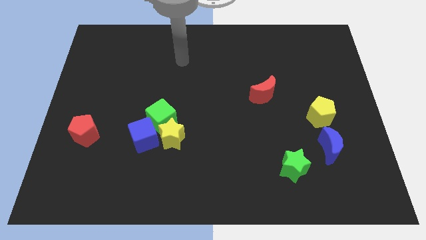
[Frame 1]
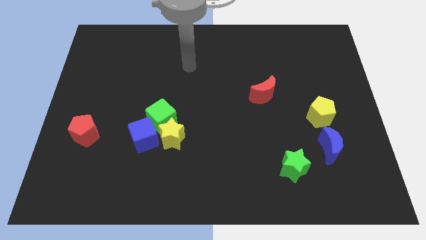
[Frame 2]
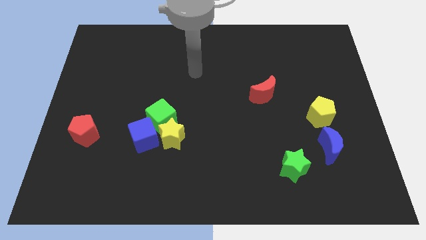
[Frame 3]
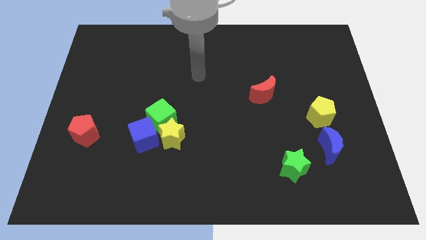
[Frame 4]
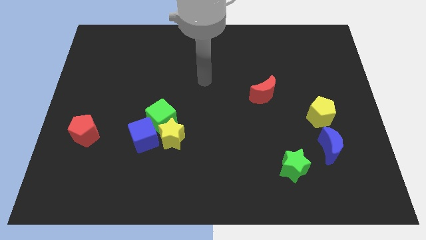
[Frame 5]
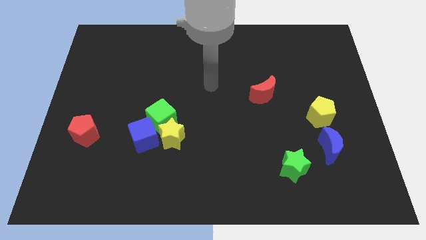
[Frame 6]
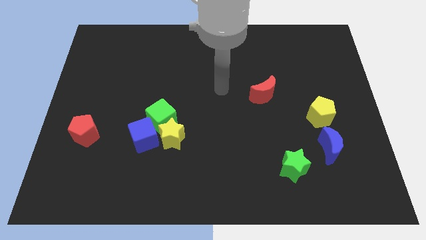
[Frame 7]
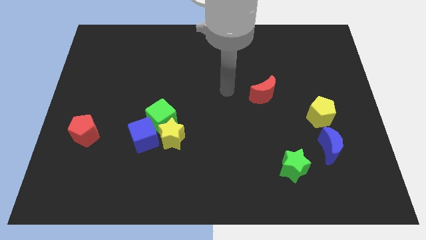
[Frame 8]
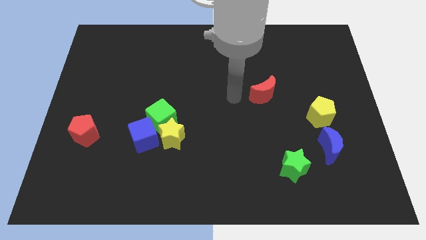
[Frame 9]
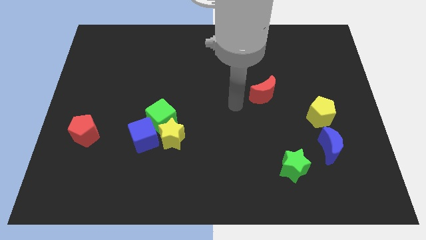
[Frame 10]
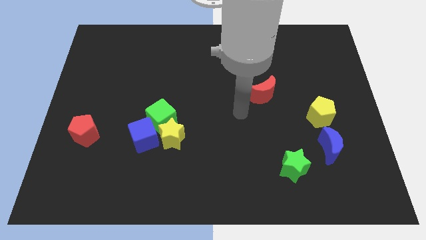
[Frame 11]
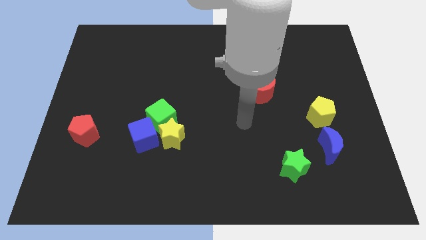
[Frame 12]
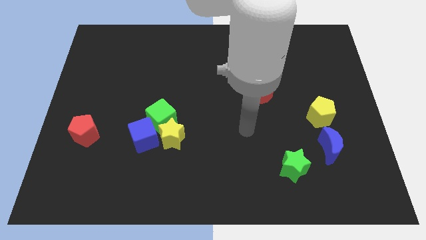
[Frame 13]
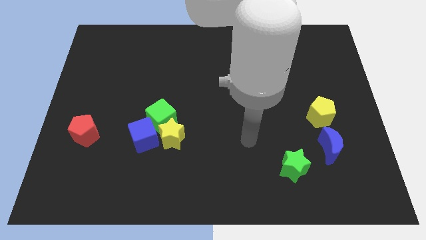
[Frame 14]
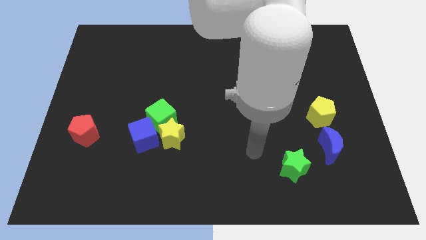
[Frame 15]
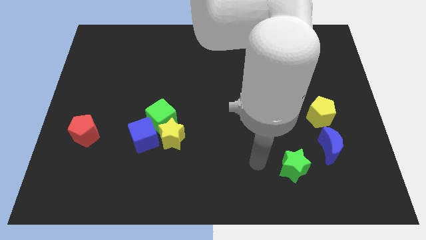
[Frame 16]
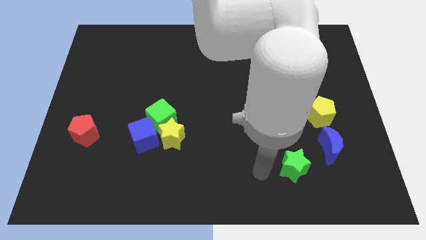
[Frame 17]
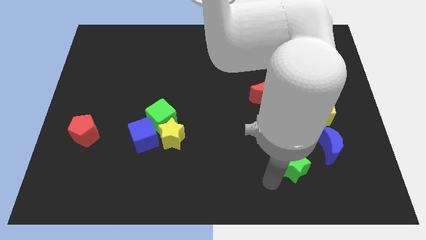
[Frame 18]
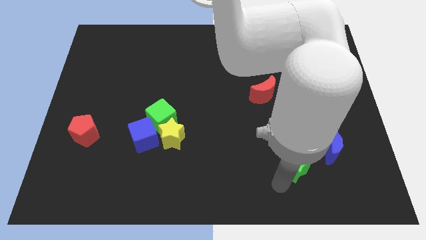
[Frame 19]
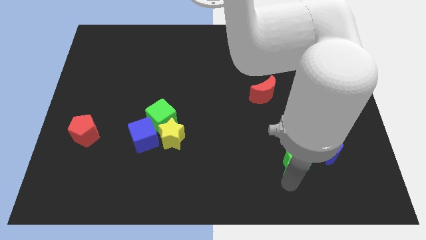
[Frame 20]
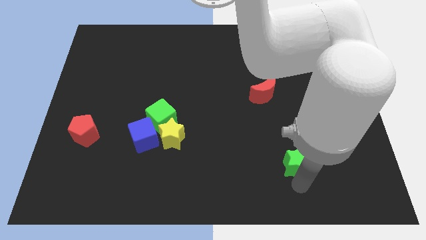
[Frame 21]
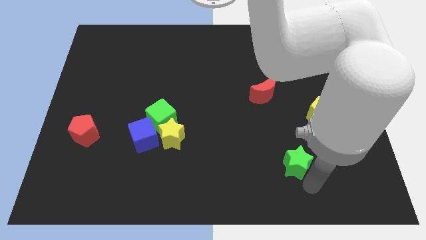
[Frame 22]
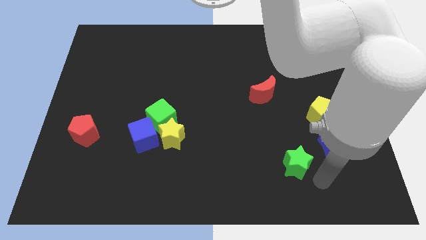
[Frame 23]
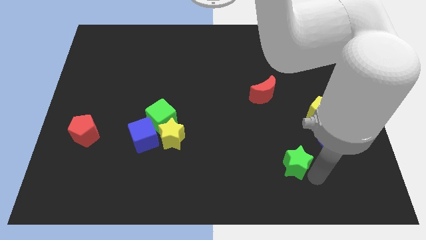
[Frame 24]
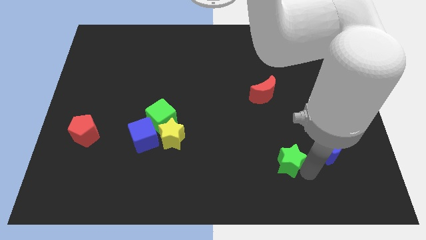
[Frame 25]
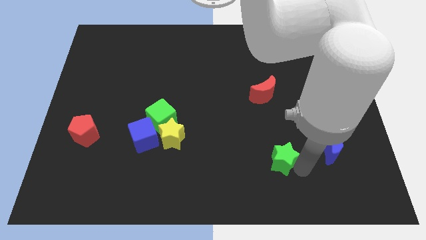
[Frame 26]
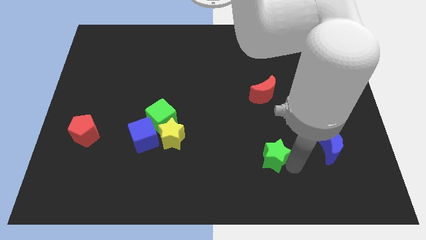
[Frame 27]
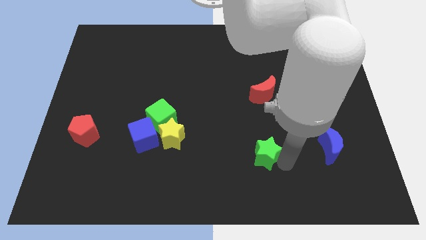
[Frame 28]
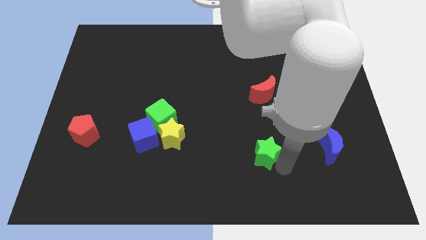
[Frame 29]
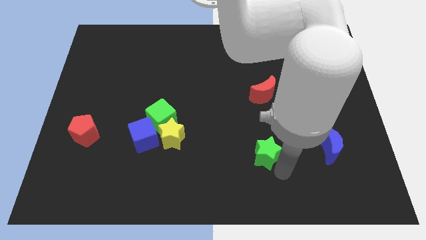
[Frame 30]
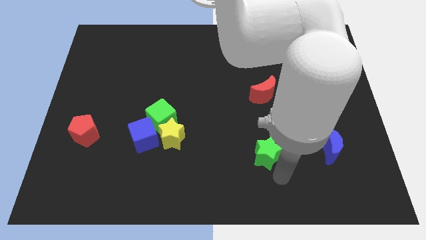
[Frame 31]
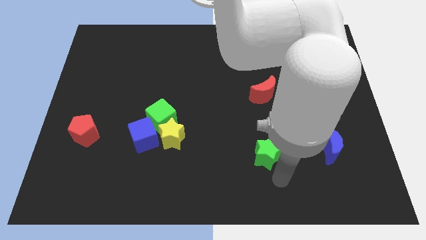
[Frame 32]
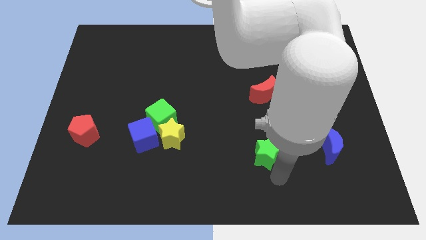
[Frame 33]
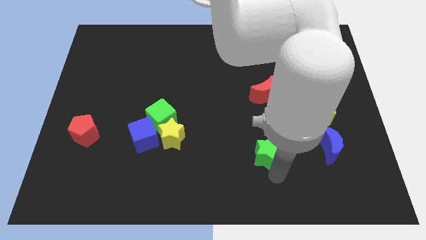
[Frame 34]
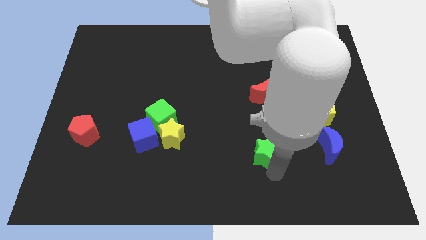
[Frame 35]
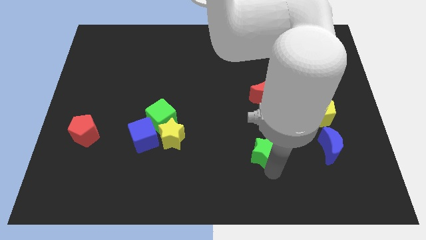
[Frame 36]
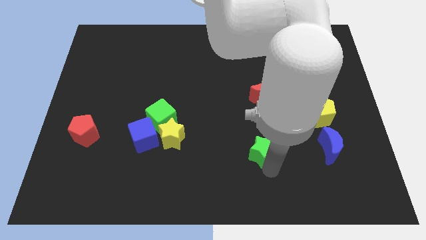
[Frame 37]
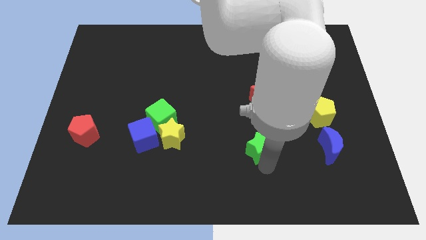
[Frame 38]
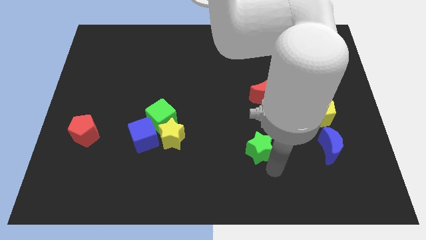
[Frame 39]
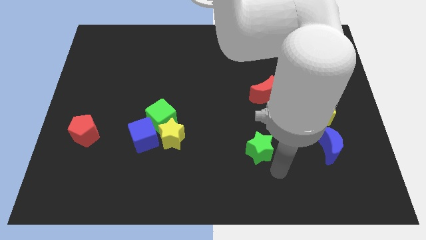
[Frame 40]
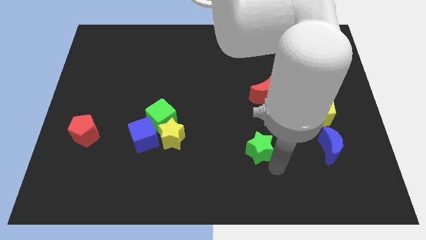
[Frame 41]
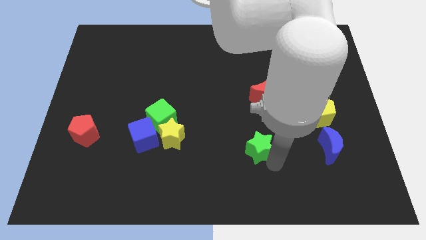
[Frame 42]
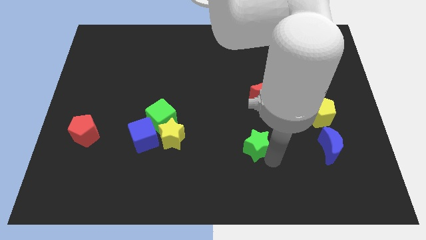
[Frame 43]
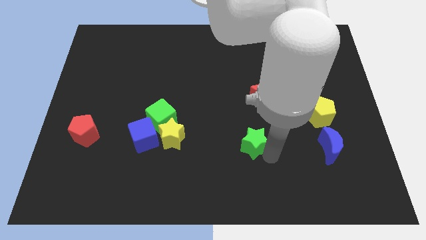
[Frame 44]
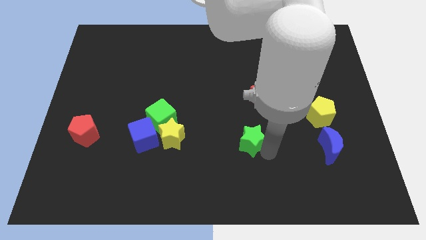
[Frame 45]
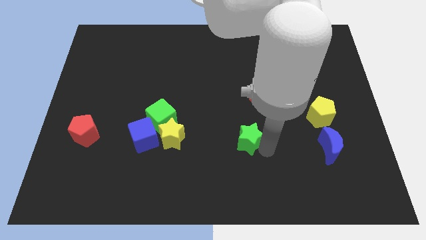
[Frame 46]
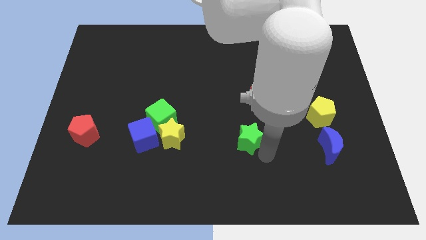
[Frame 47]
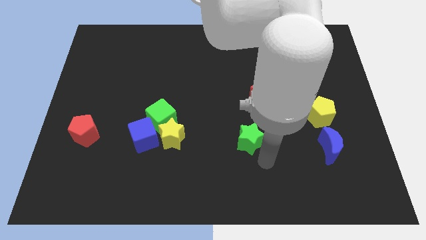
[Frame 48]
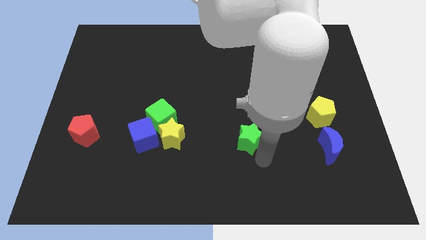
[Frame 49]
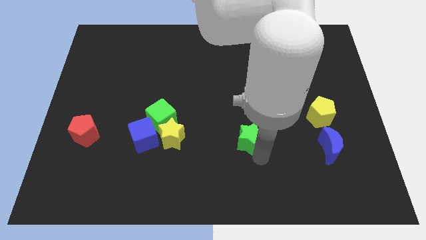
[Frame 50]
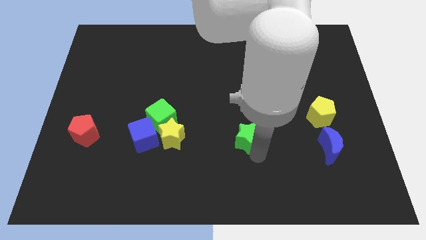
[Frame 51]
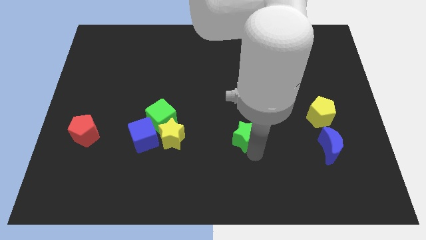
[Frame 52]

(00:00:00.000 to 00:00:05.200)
slide the green star to the center of the board

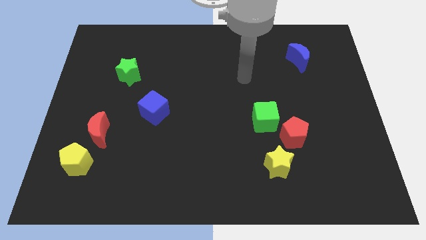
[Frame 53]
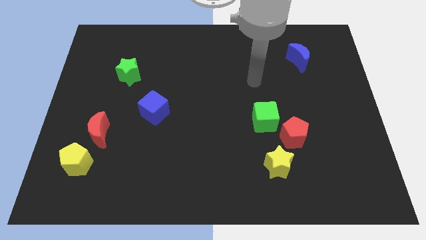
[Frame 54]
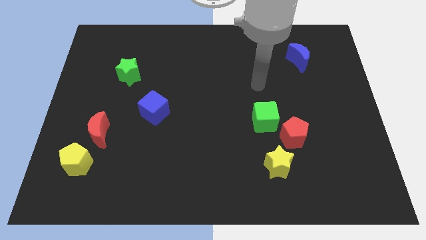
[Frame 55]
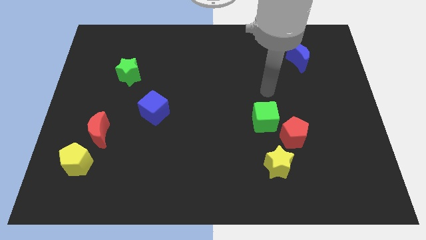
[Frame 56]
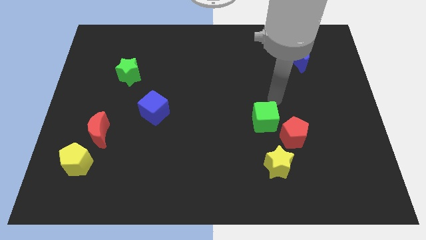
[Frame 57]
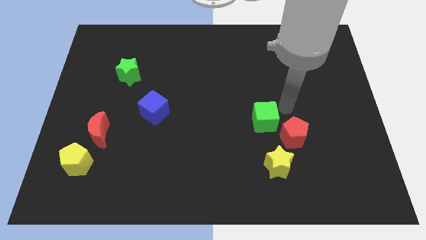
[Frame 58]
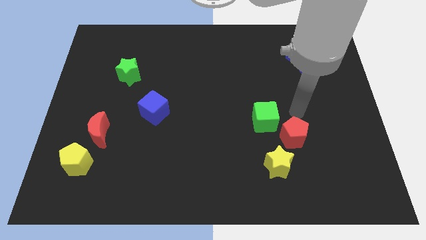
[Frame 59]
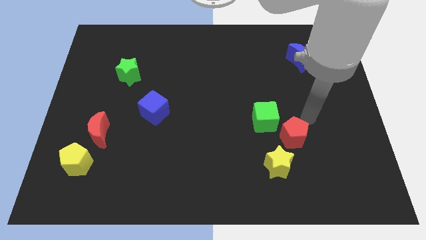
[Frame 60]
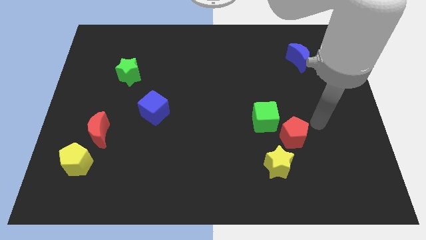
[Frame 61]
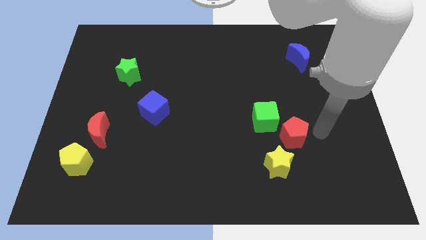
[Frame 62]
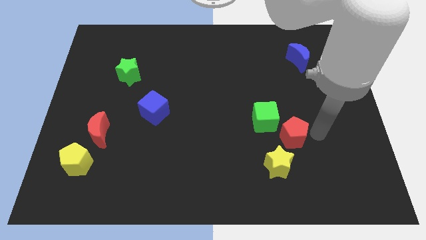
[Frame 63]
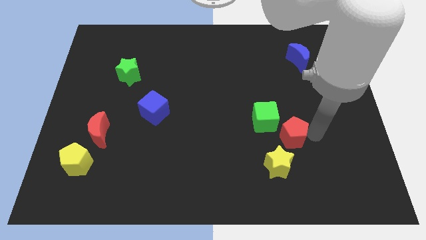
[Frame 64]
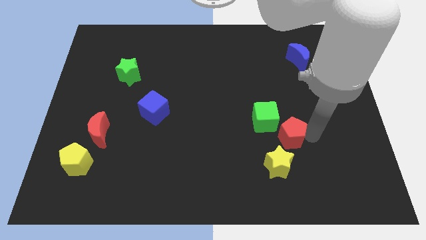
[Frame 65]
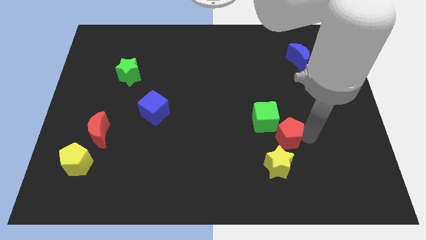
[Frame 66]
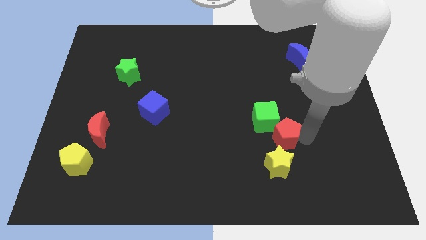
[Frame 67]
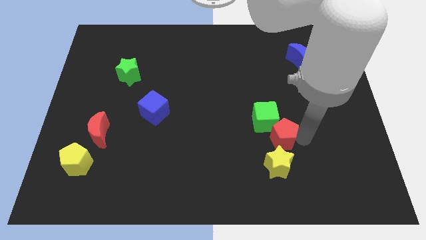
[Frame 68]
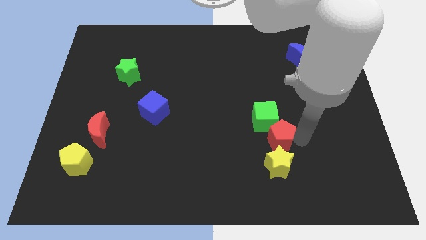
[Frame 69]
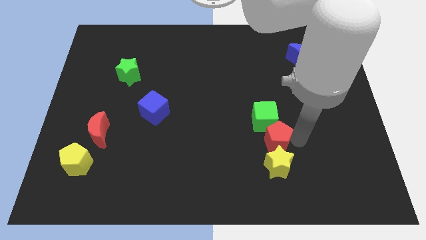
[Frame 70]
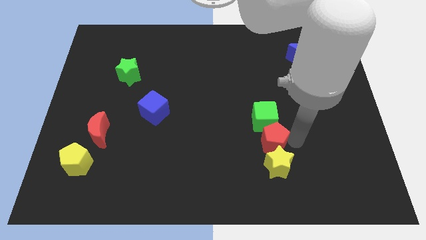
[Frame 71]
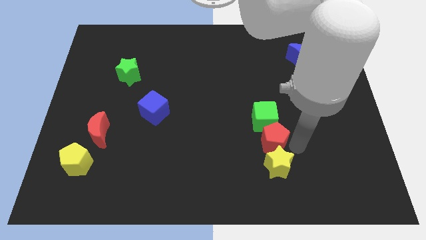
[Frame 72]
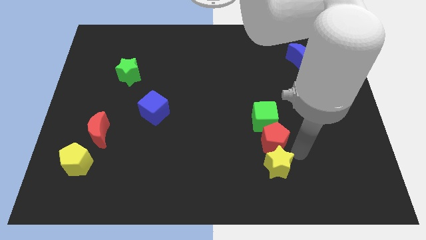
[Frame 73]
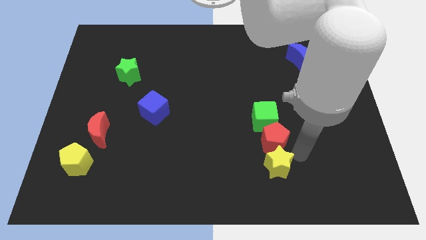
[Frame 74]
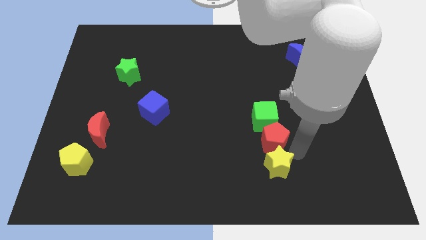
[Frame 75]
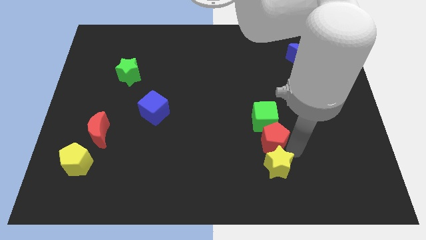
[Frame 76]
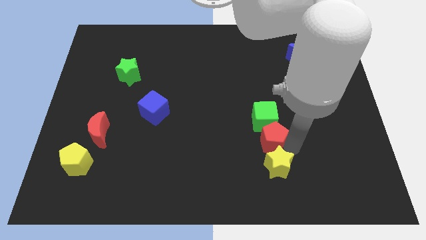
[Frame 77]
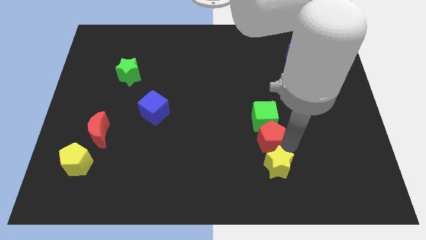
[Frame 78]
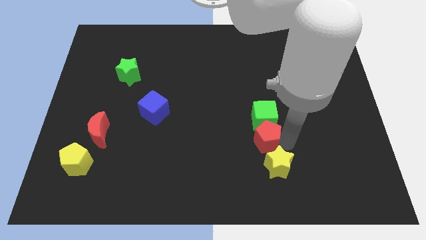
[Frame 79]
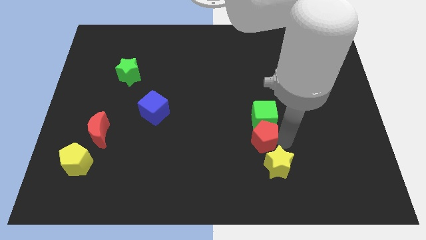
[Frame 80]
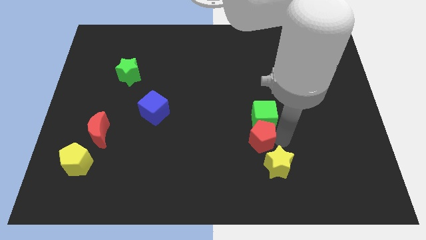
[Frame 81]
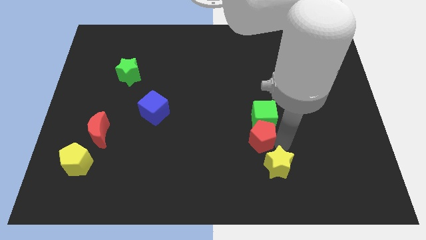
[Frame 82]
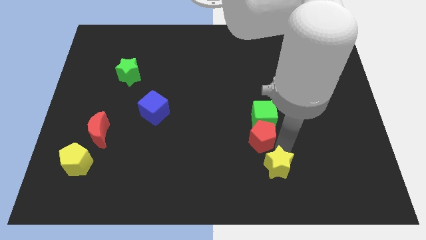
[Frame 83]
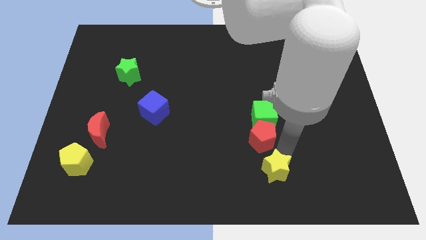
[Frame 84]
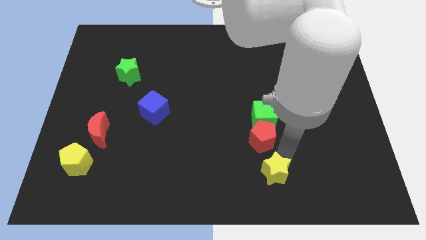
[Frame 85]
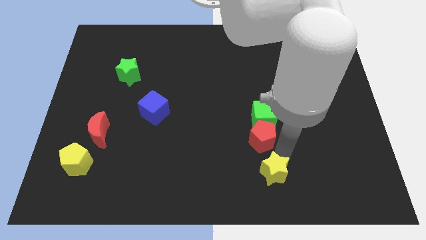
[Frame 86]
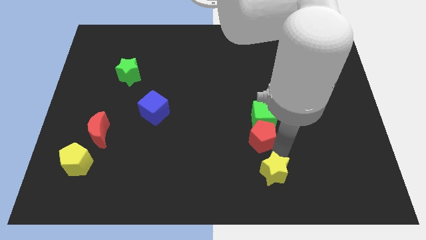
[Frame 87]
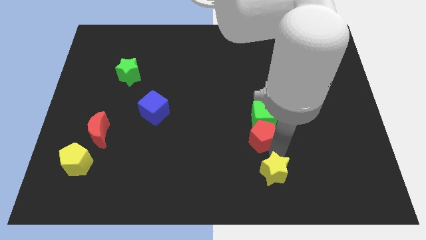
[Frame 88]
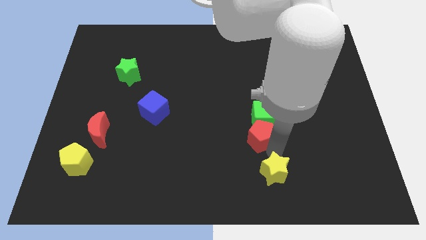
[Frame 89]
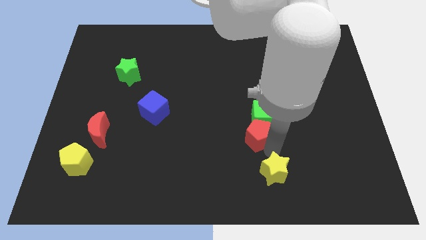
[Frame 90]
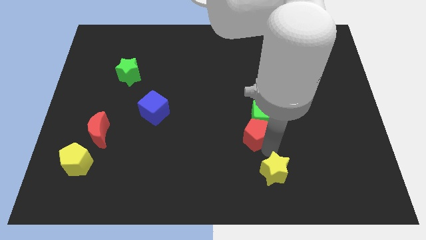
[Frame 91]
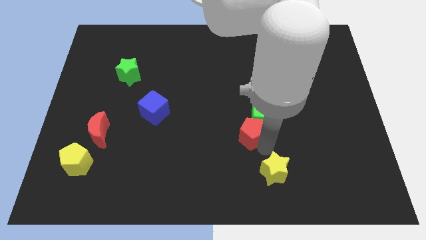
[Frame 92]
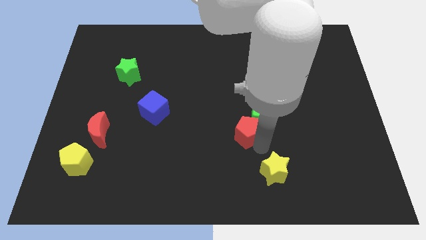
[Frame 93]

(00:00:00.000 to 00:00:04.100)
put the red pentagon to the middle of the board
